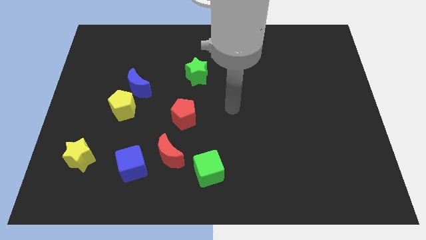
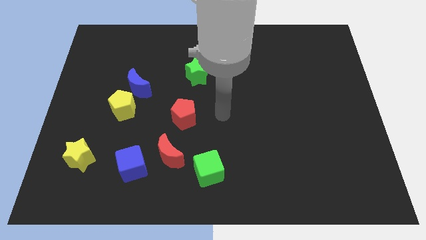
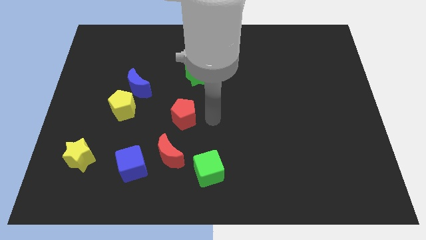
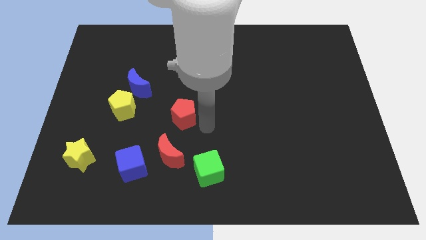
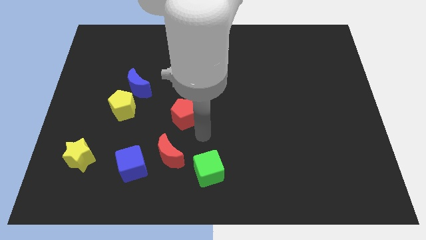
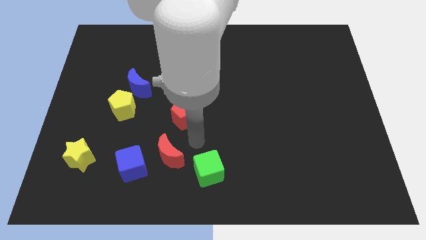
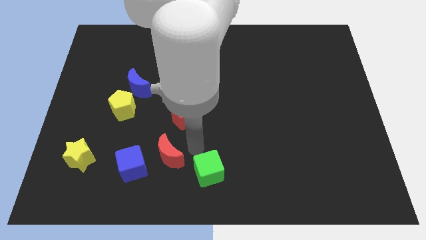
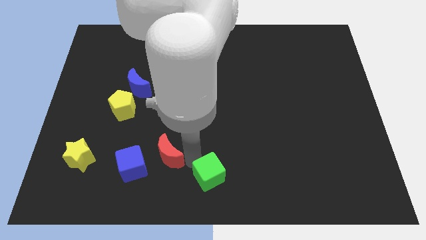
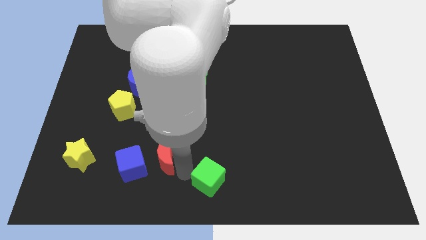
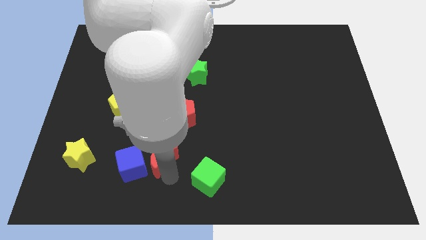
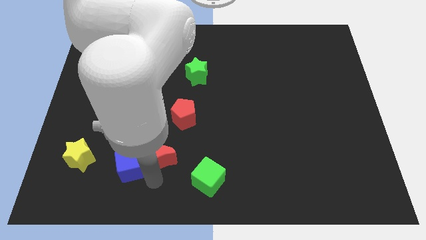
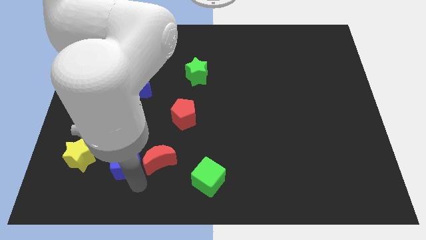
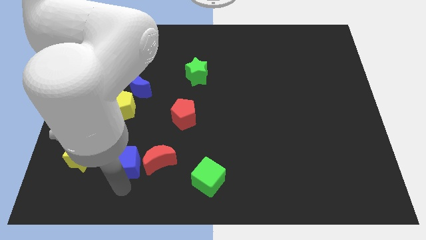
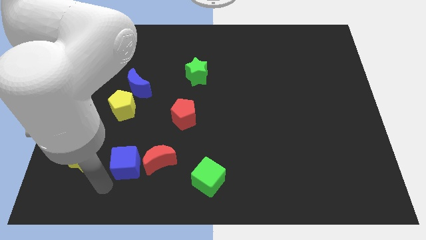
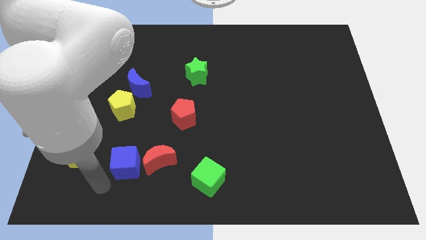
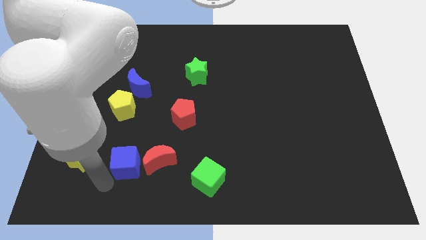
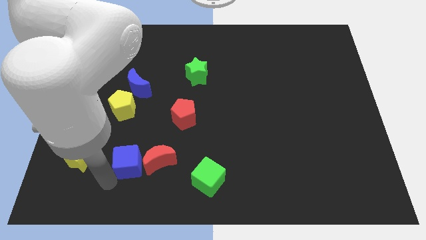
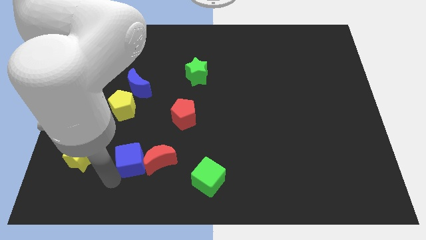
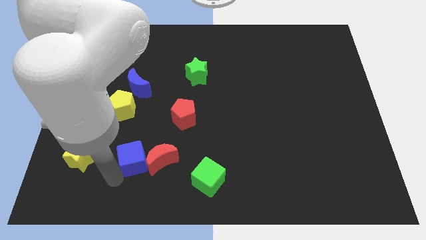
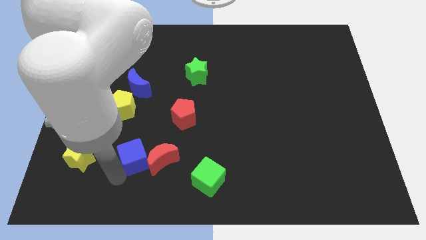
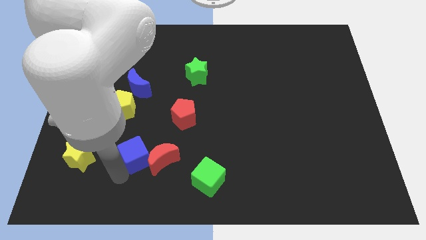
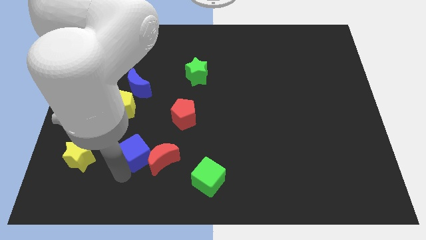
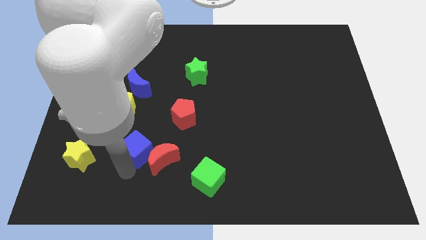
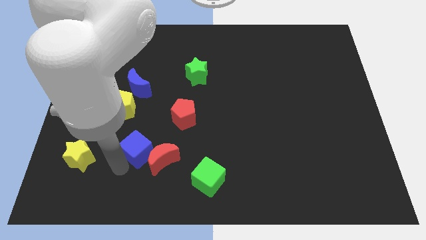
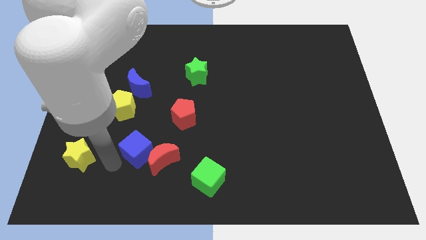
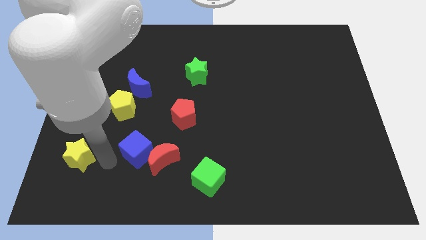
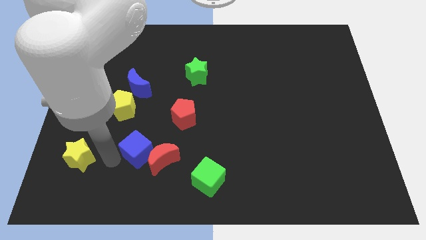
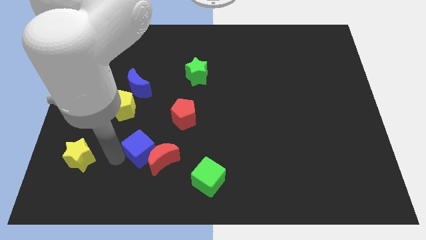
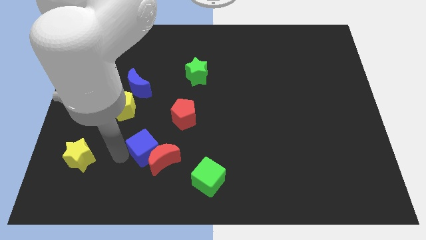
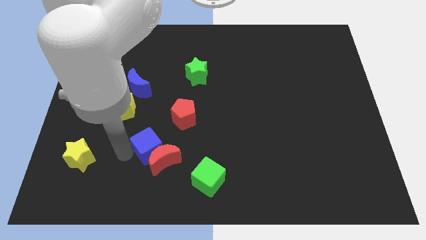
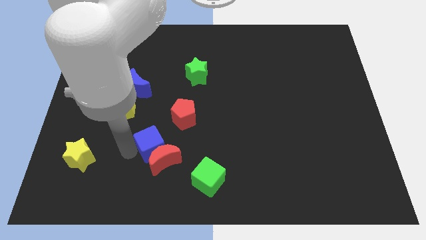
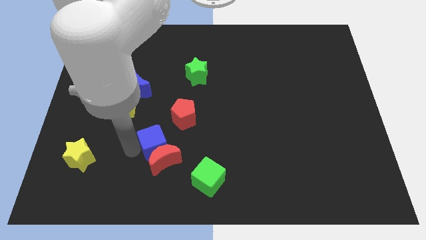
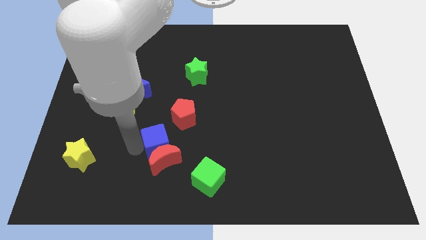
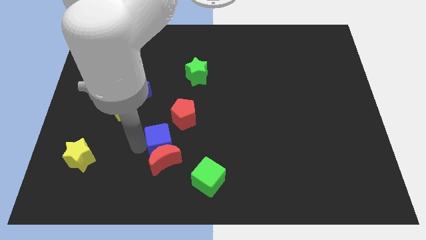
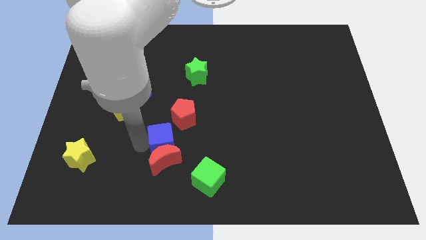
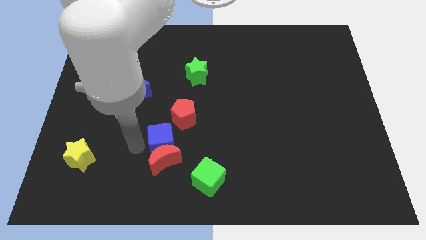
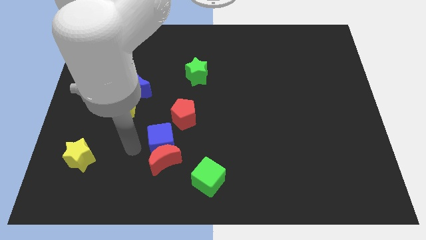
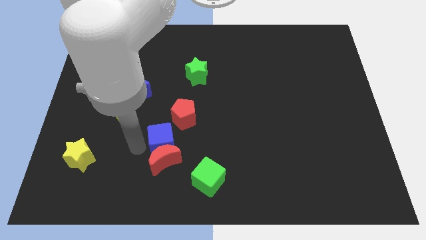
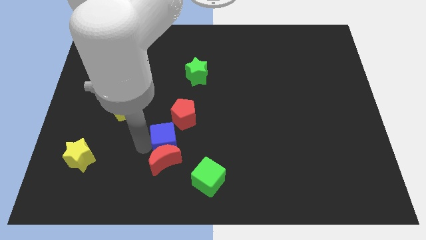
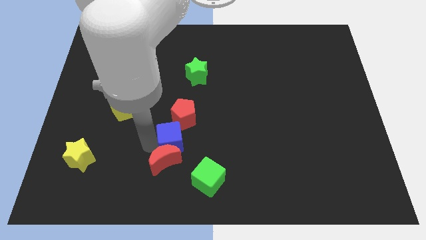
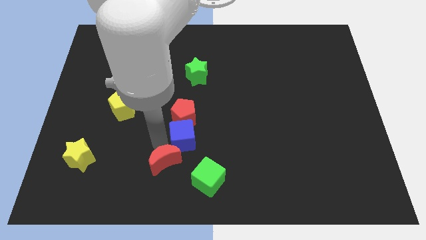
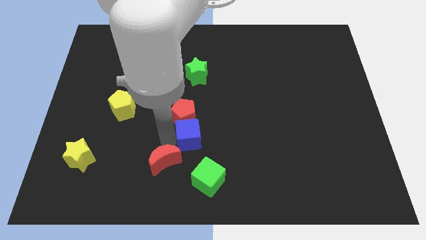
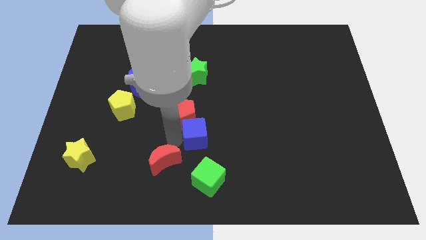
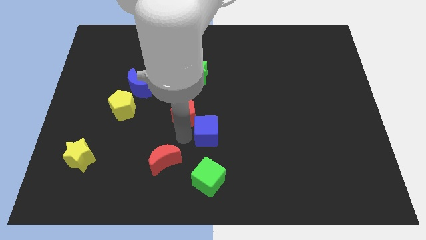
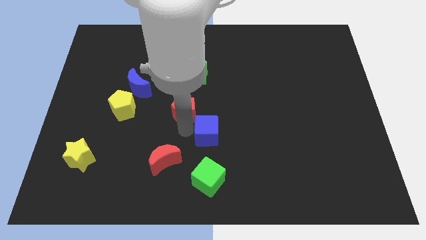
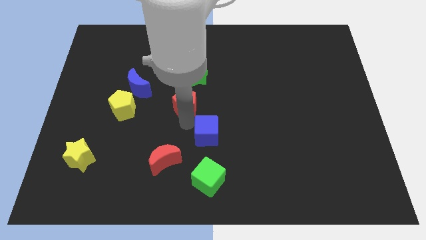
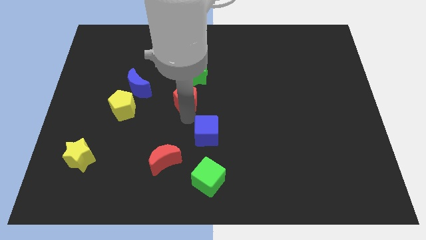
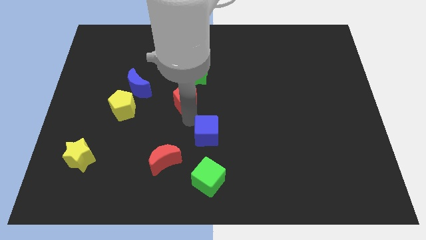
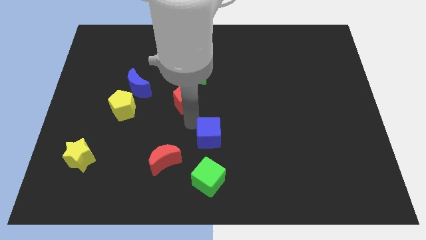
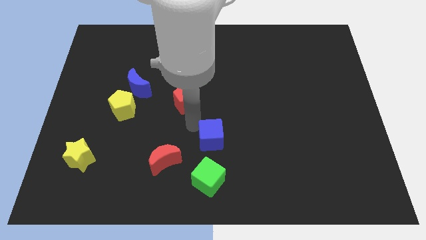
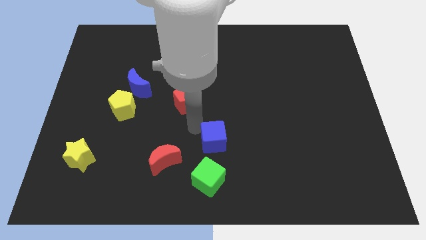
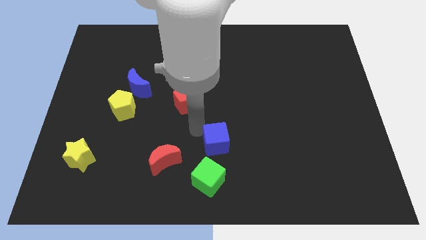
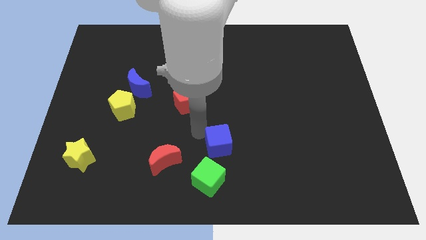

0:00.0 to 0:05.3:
put the blue cube diagonally up and to the right of the green cube

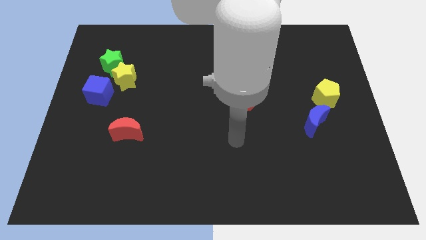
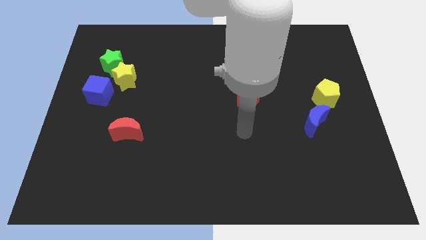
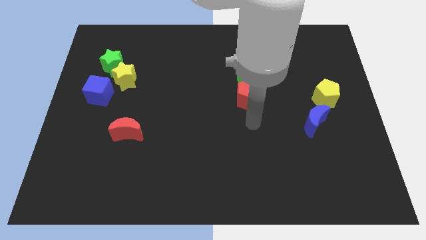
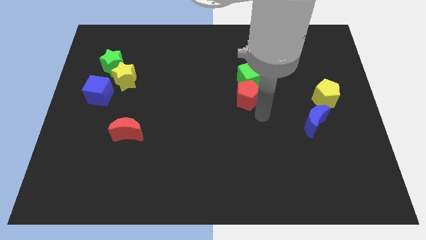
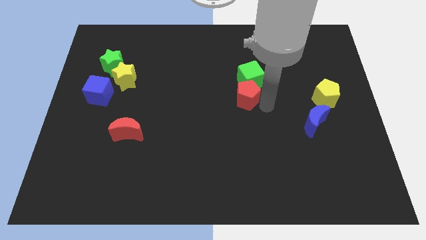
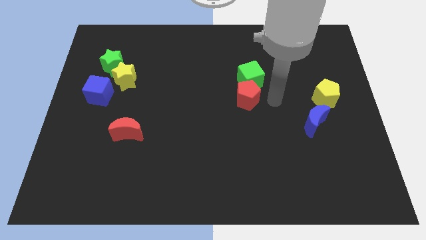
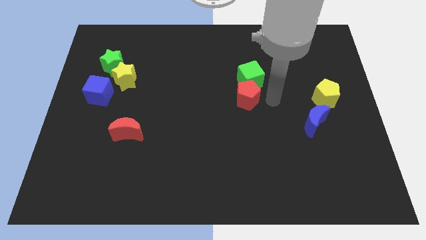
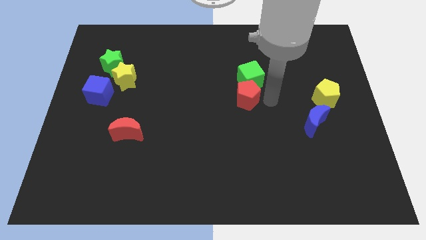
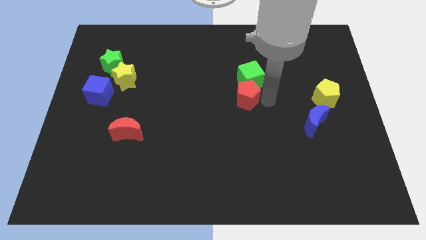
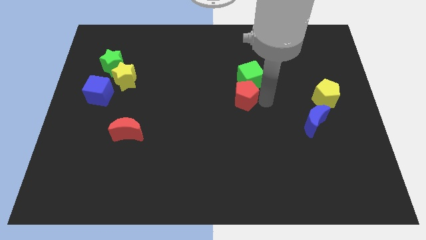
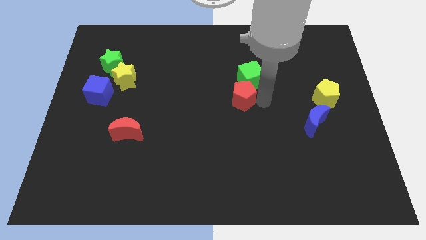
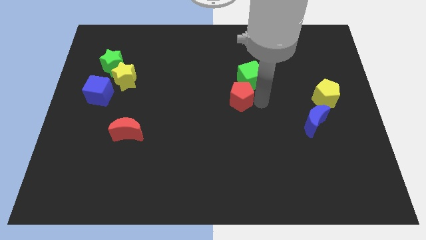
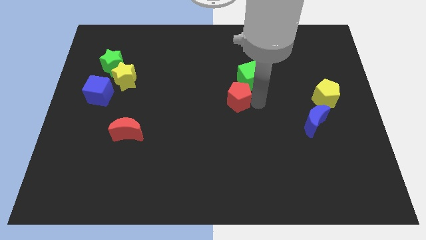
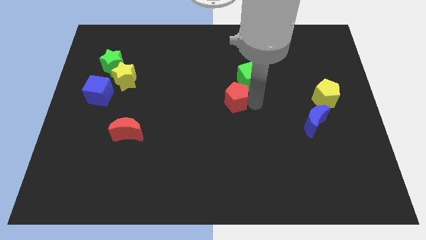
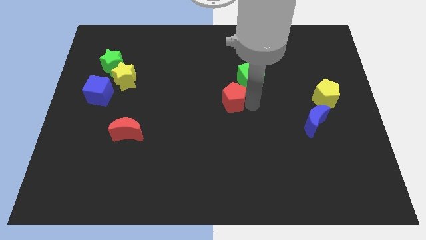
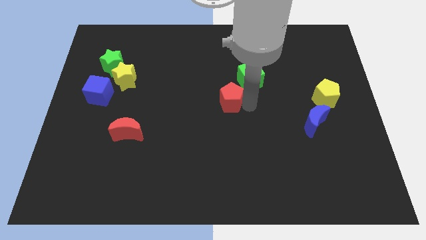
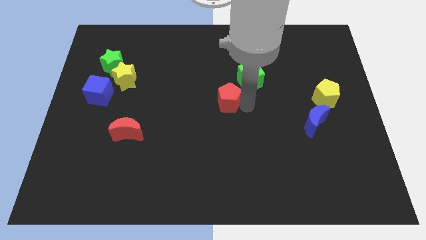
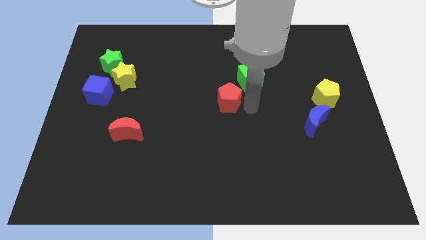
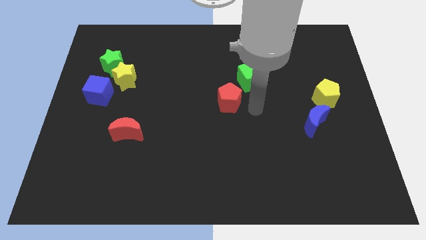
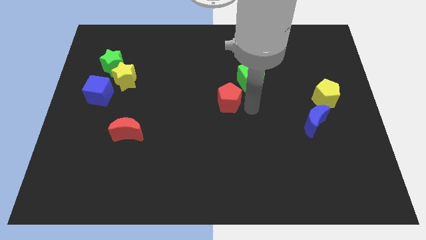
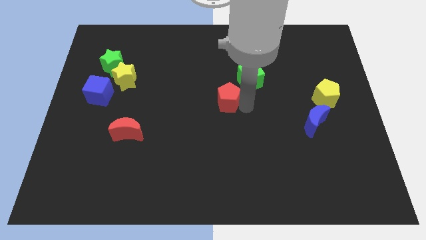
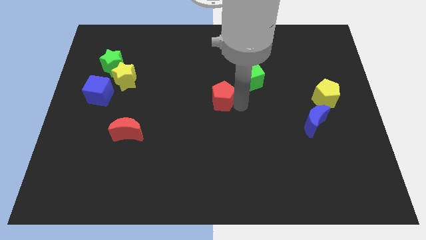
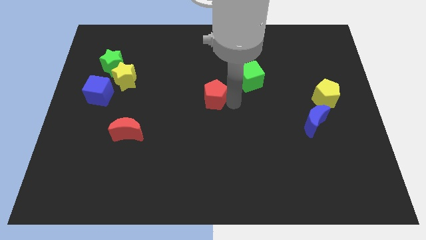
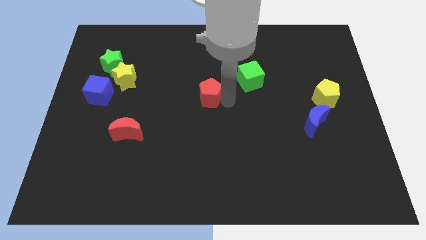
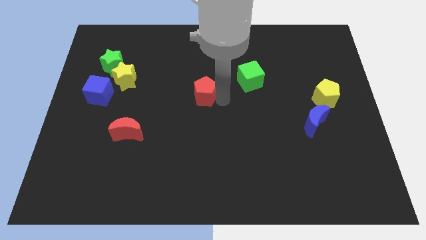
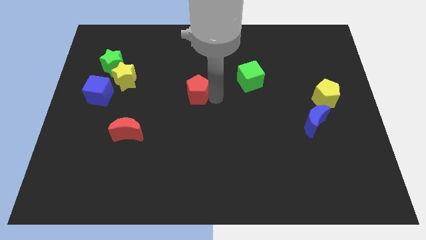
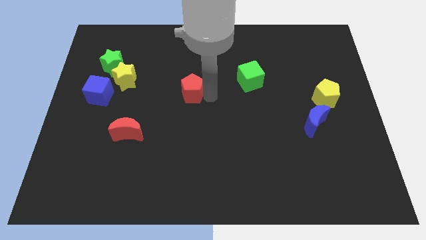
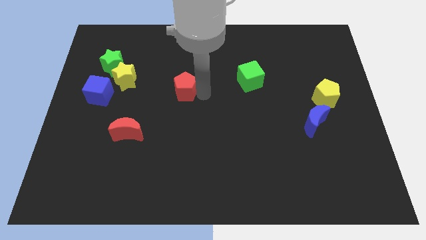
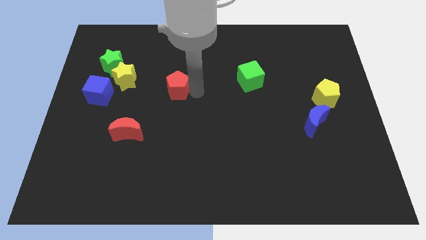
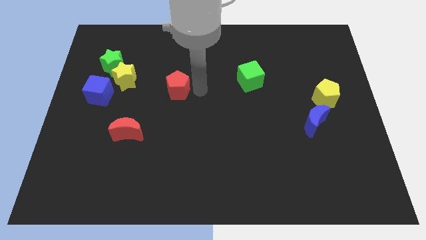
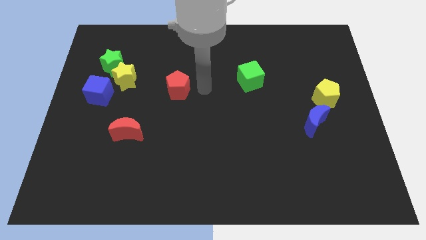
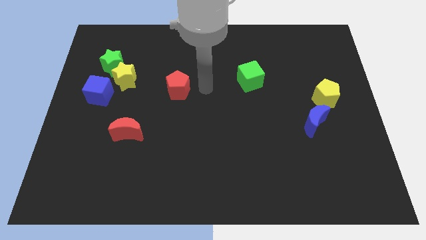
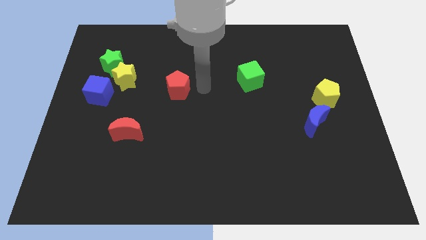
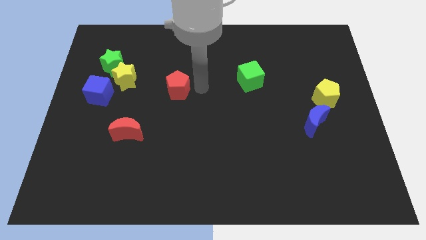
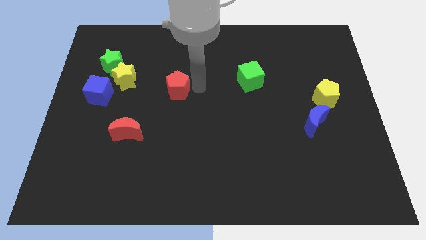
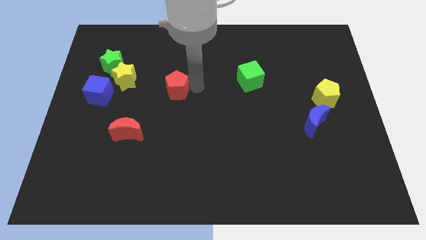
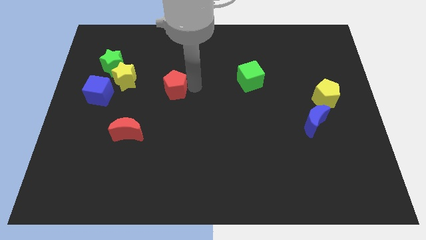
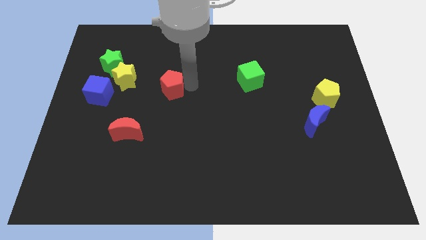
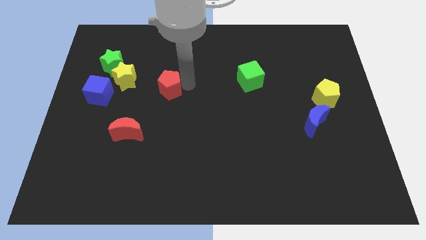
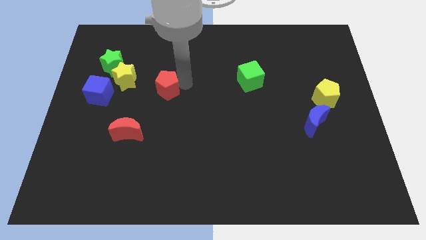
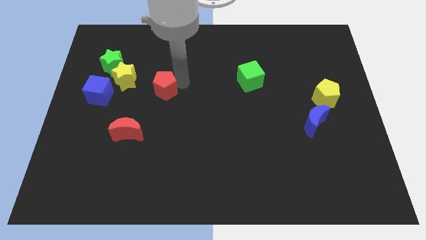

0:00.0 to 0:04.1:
put the red pentagon to the right side of the blue cube
